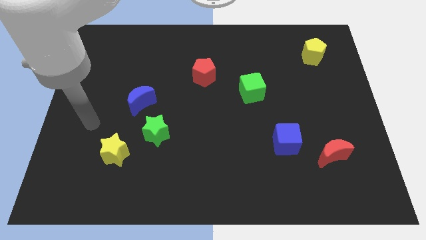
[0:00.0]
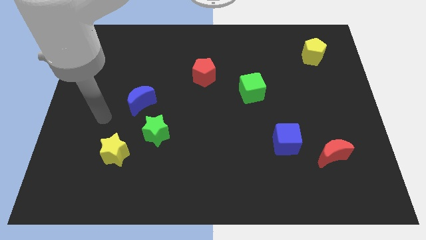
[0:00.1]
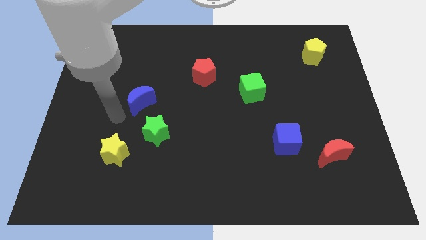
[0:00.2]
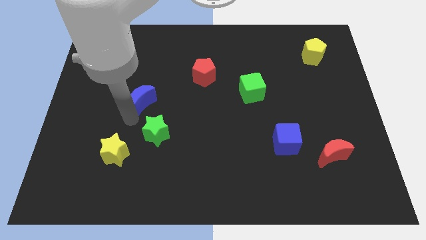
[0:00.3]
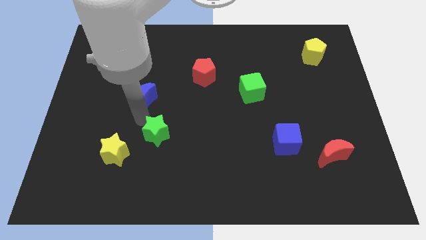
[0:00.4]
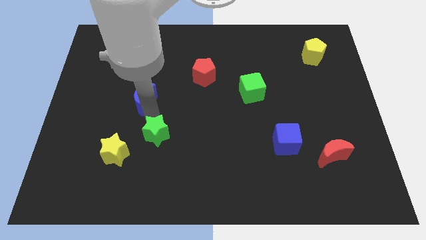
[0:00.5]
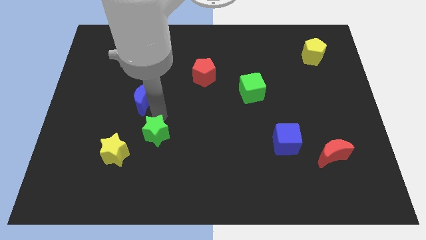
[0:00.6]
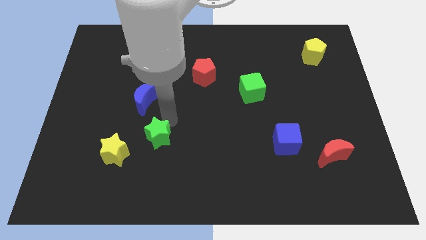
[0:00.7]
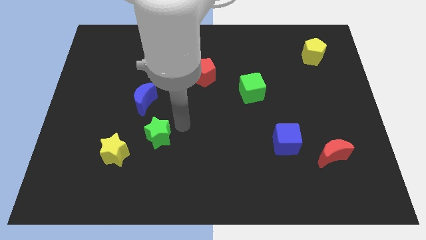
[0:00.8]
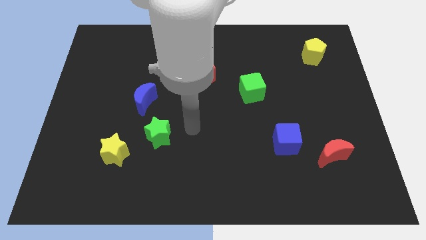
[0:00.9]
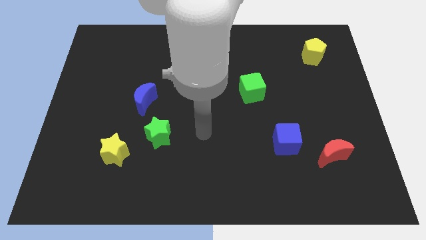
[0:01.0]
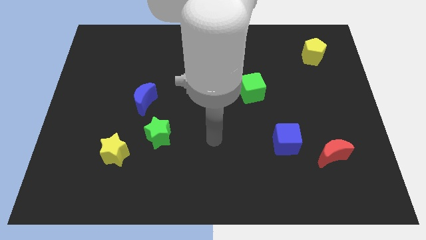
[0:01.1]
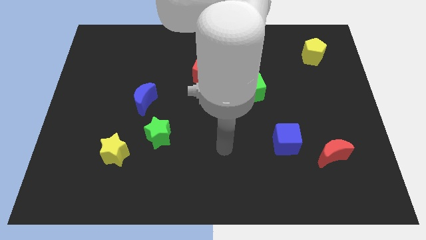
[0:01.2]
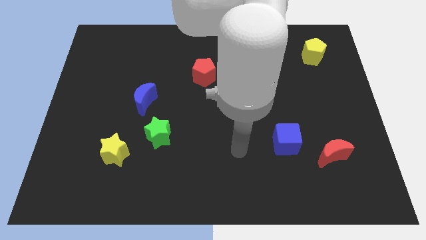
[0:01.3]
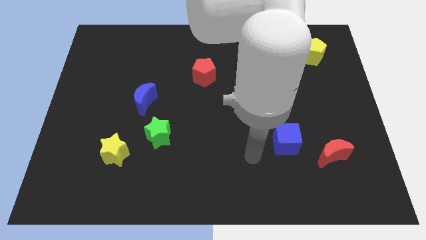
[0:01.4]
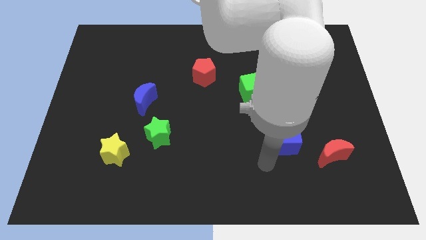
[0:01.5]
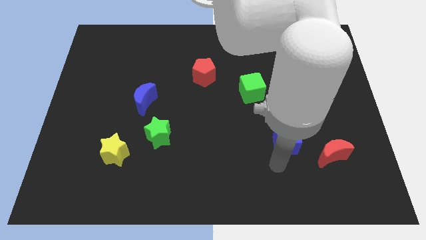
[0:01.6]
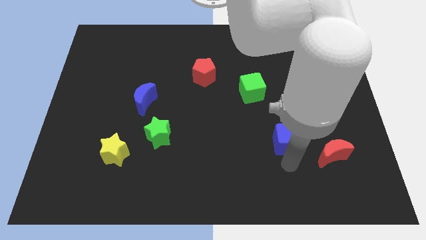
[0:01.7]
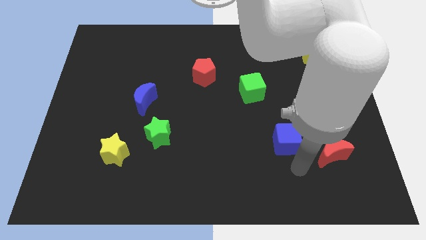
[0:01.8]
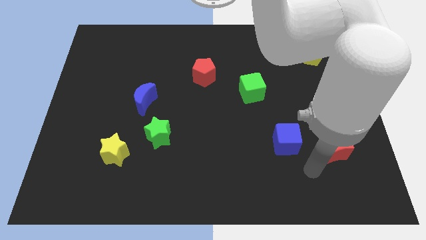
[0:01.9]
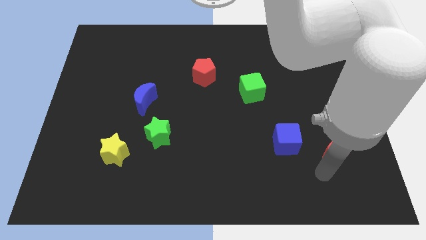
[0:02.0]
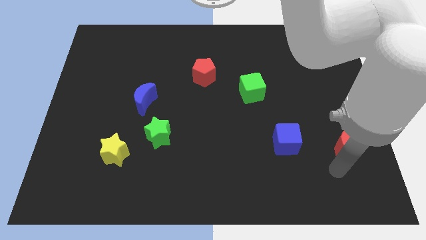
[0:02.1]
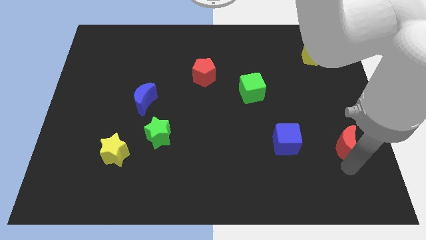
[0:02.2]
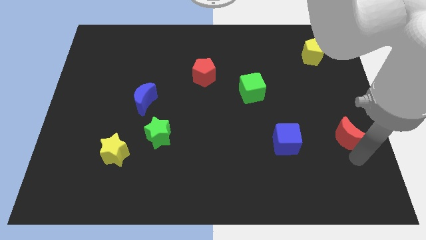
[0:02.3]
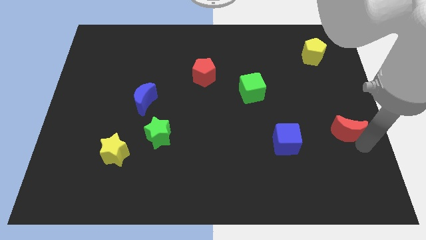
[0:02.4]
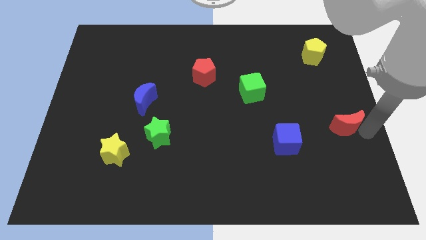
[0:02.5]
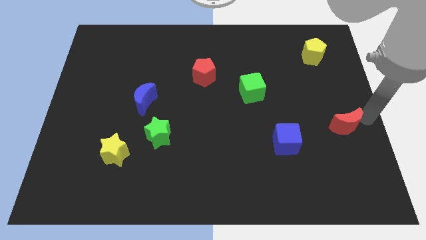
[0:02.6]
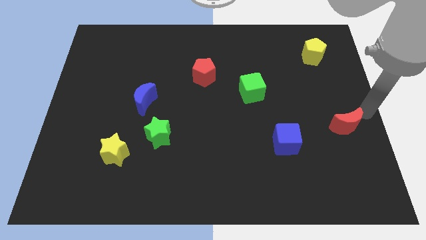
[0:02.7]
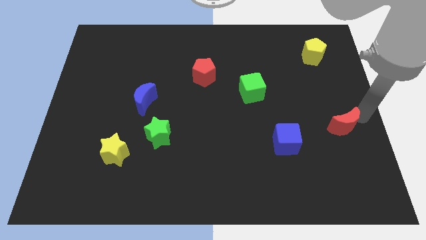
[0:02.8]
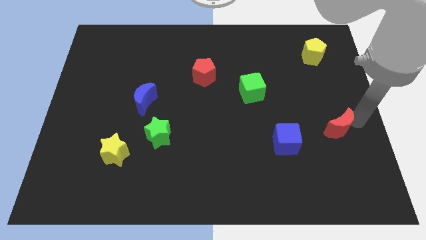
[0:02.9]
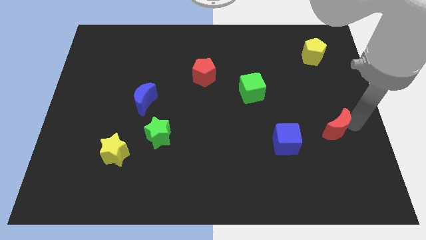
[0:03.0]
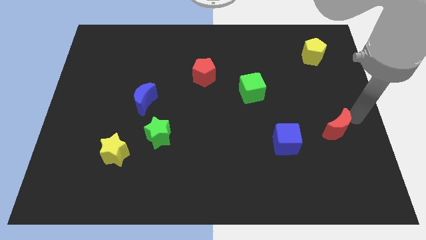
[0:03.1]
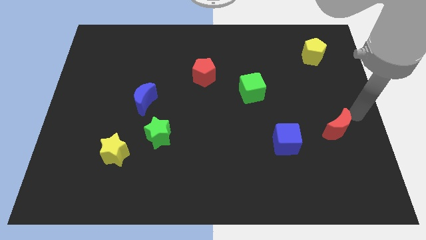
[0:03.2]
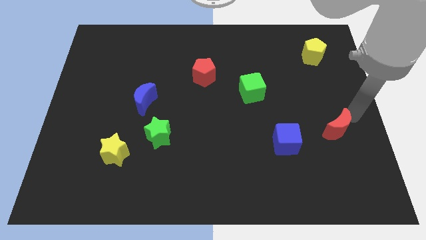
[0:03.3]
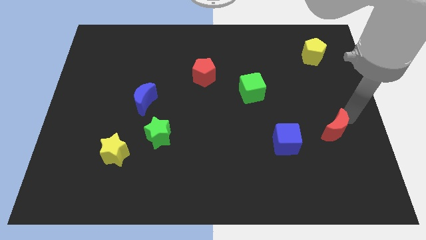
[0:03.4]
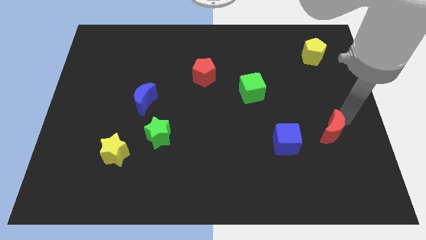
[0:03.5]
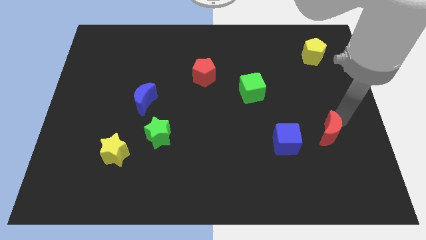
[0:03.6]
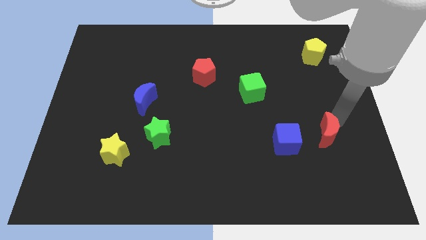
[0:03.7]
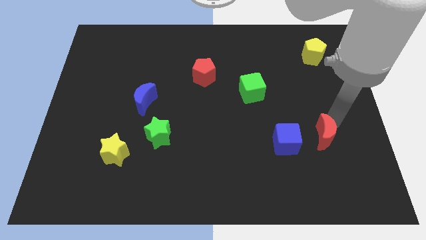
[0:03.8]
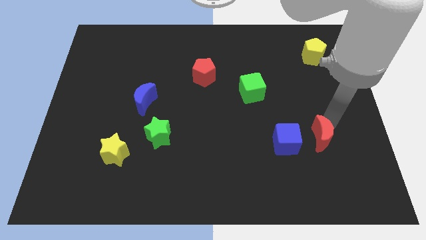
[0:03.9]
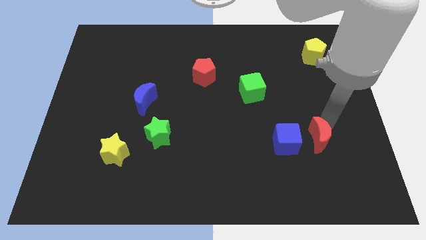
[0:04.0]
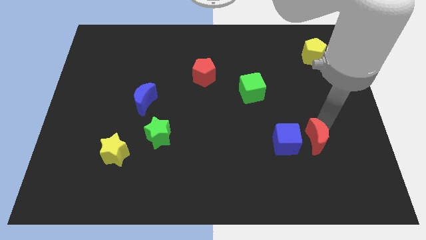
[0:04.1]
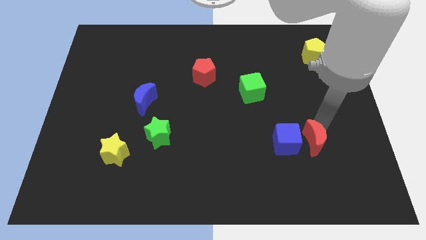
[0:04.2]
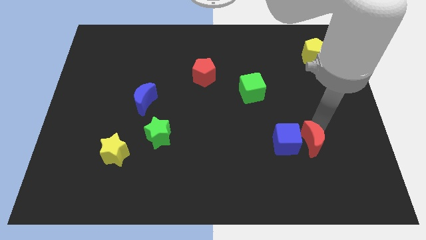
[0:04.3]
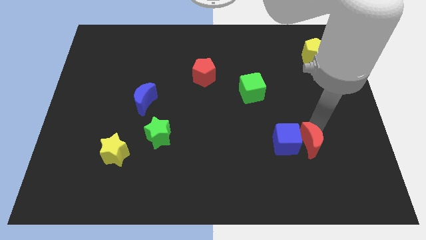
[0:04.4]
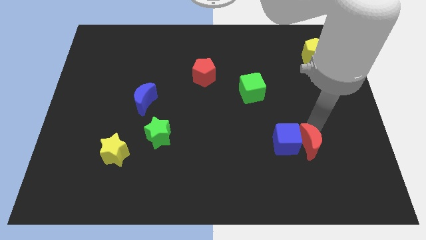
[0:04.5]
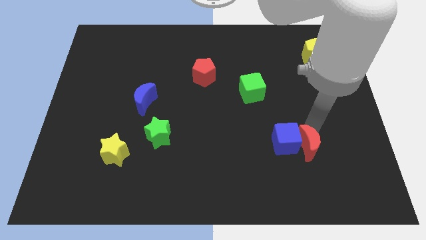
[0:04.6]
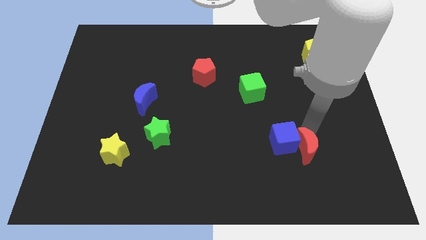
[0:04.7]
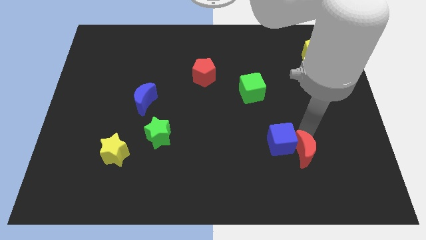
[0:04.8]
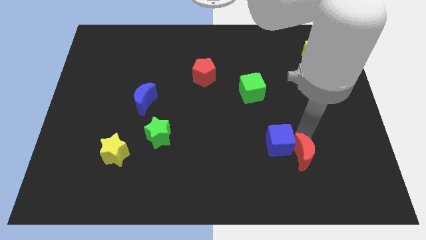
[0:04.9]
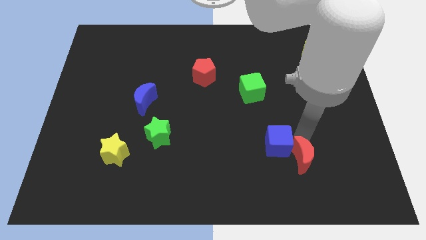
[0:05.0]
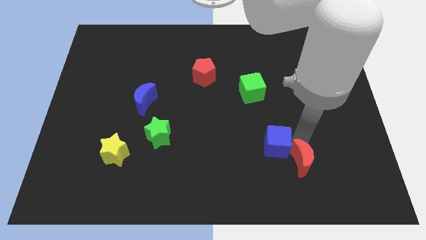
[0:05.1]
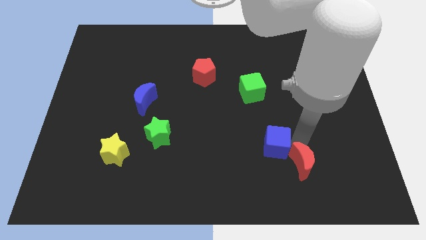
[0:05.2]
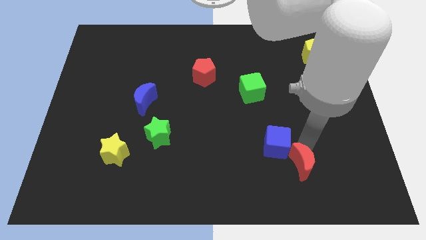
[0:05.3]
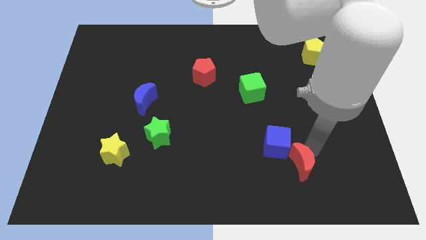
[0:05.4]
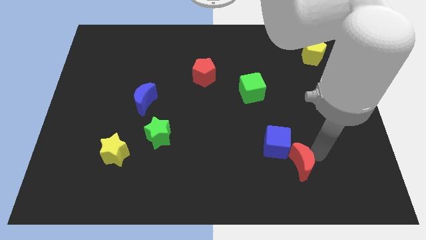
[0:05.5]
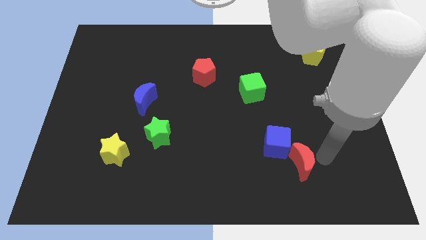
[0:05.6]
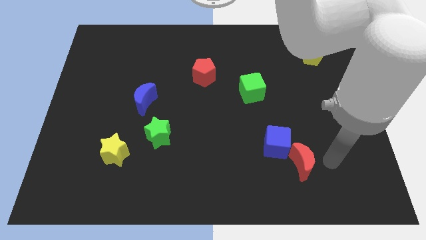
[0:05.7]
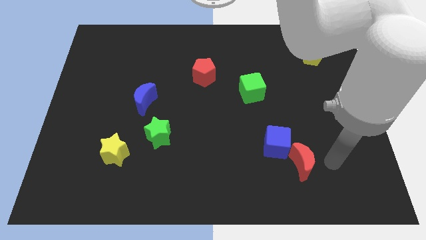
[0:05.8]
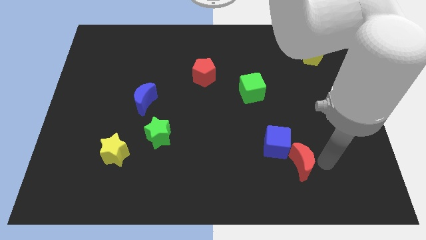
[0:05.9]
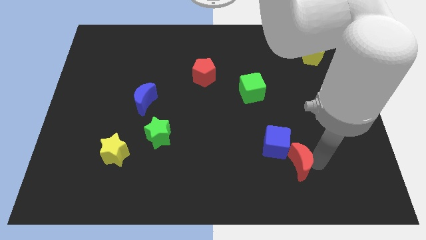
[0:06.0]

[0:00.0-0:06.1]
push the red moon a little to the left

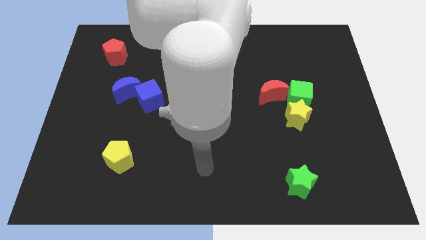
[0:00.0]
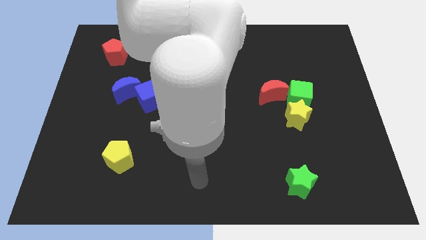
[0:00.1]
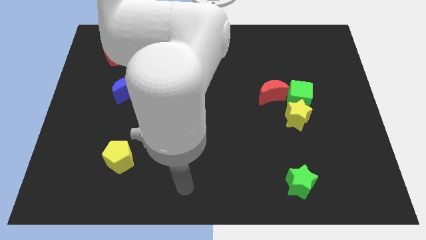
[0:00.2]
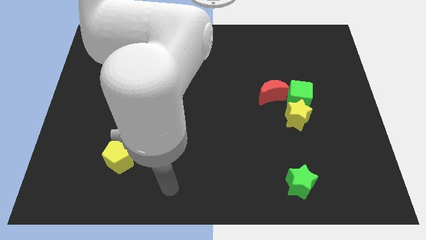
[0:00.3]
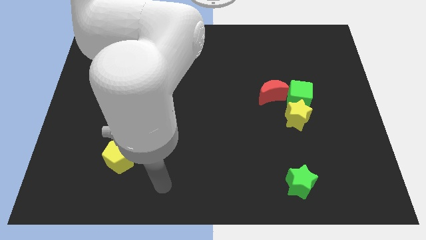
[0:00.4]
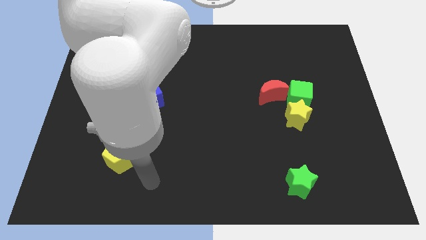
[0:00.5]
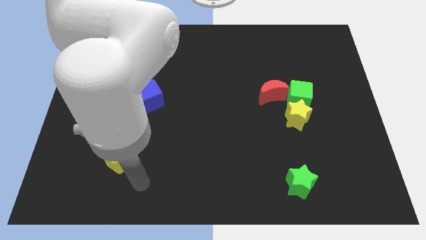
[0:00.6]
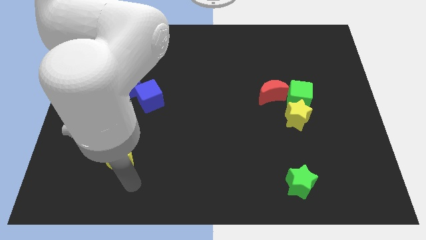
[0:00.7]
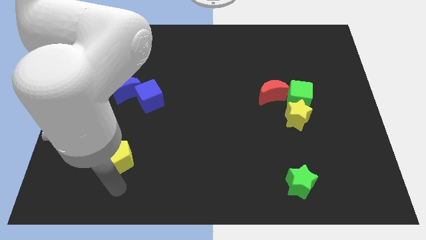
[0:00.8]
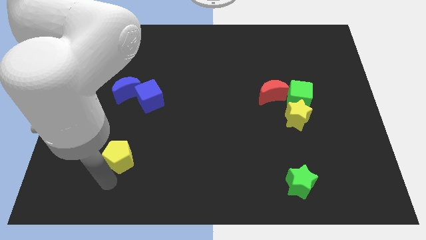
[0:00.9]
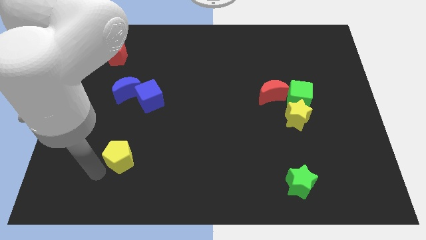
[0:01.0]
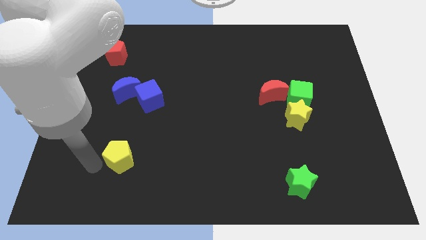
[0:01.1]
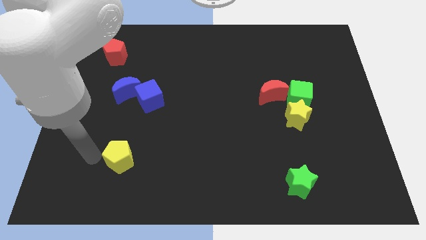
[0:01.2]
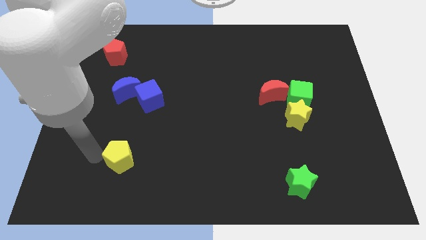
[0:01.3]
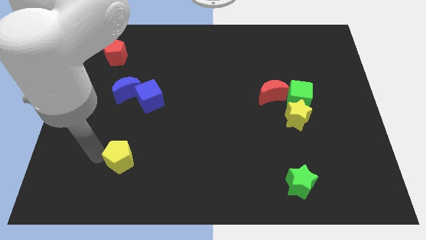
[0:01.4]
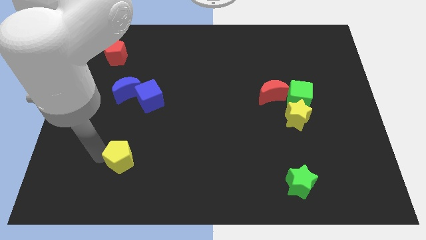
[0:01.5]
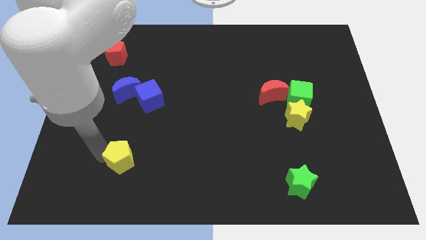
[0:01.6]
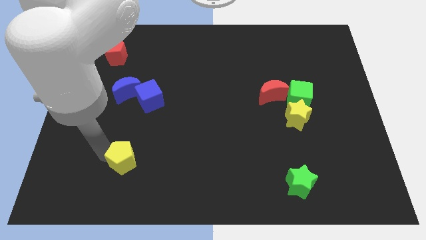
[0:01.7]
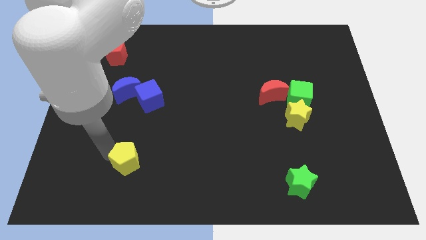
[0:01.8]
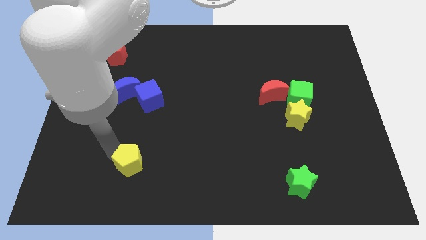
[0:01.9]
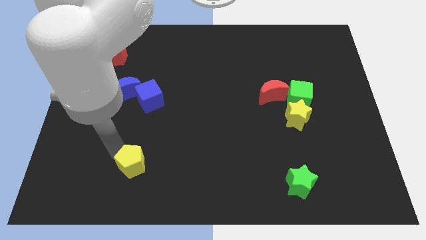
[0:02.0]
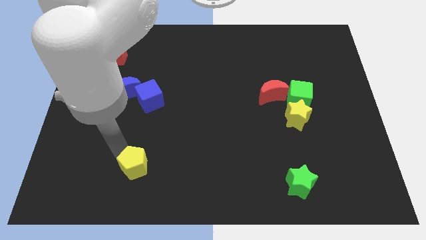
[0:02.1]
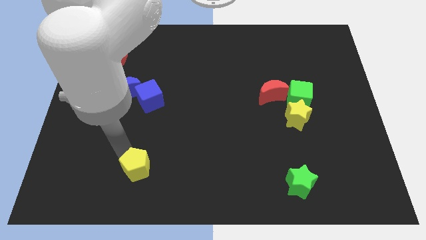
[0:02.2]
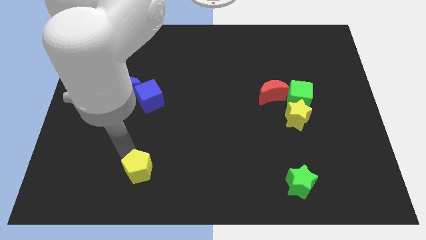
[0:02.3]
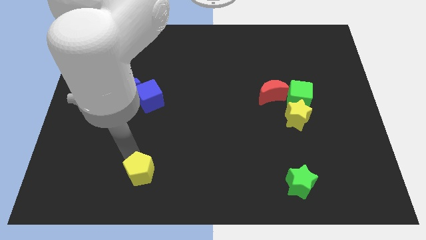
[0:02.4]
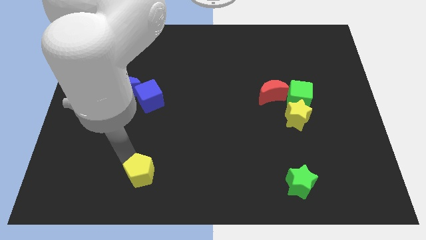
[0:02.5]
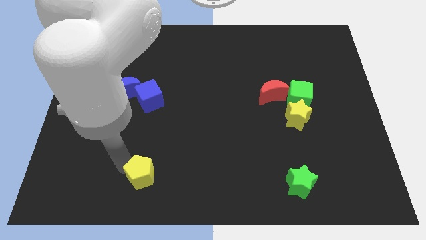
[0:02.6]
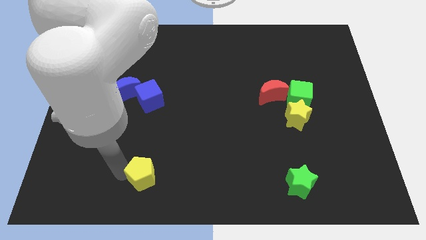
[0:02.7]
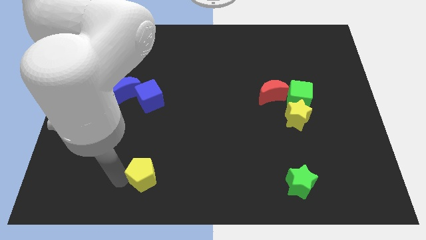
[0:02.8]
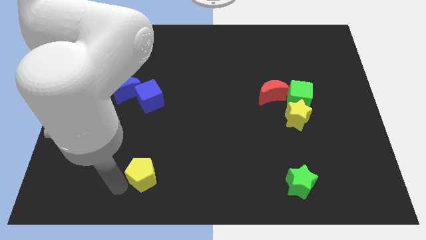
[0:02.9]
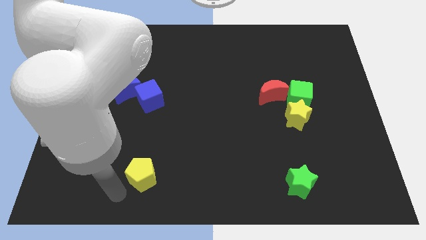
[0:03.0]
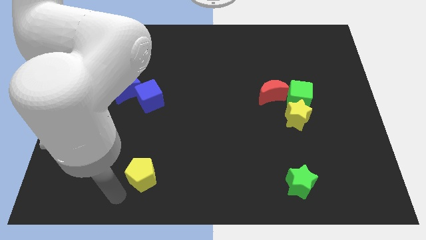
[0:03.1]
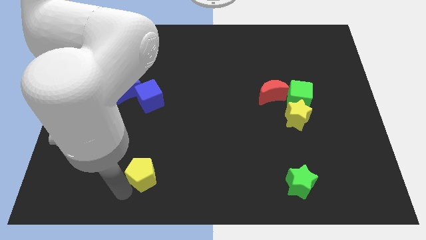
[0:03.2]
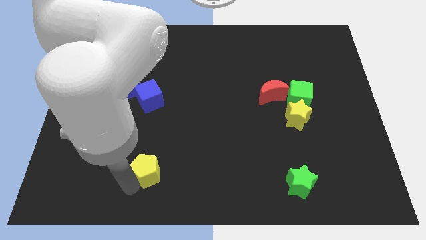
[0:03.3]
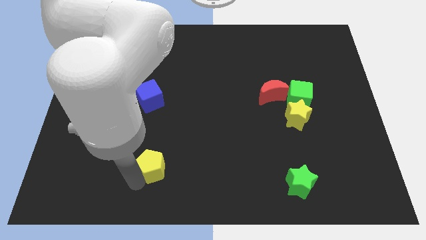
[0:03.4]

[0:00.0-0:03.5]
slightly push the yellow pentagon right
